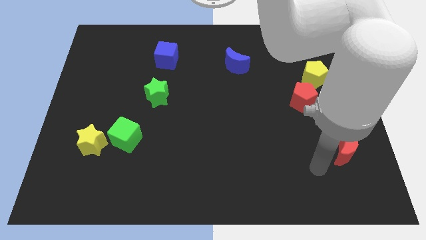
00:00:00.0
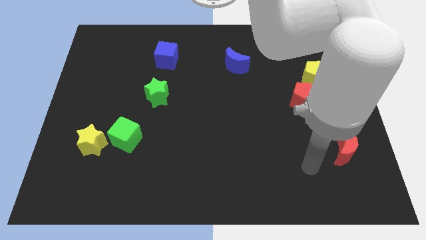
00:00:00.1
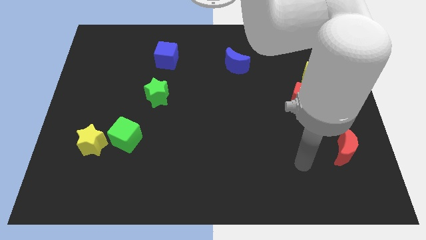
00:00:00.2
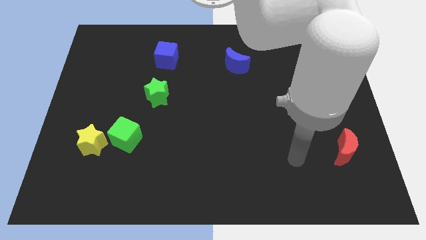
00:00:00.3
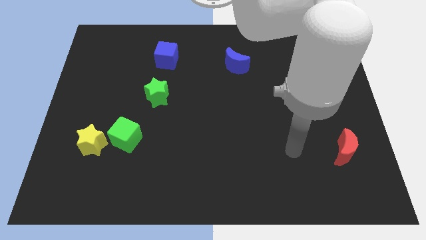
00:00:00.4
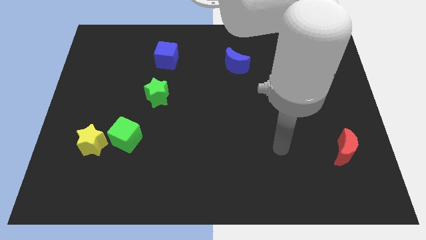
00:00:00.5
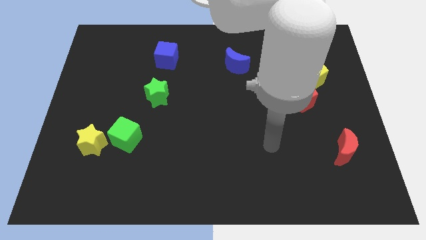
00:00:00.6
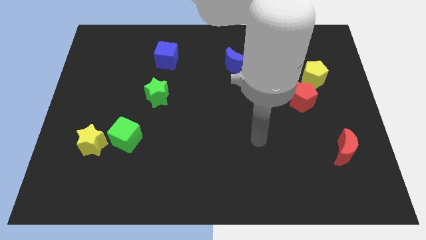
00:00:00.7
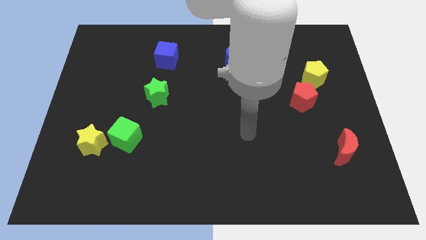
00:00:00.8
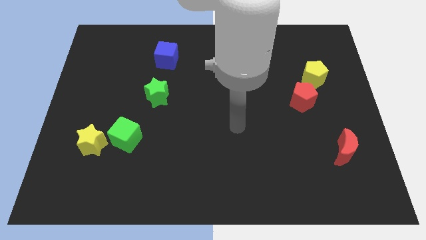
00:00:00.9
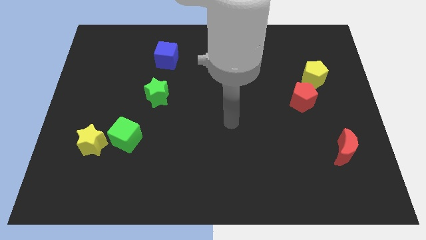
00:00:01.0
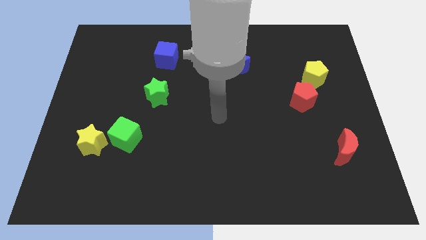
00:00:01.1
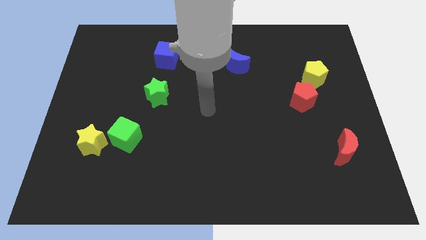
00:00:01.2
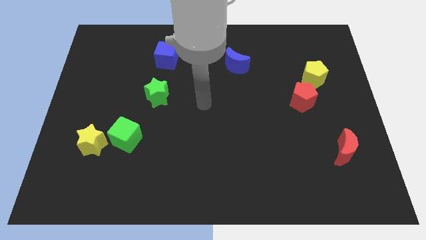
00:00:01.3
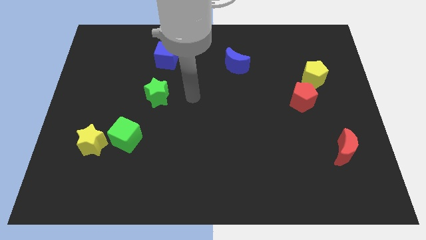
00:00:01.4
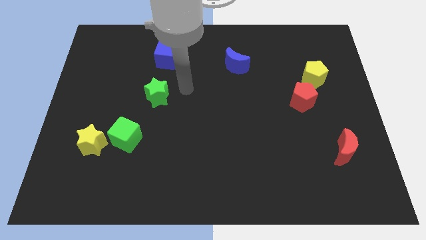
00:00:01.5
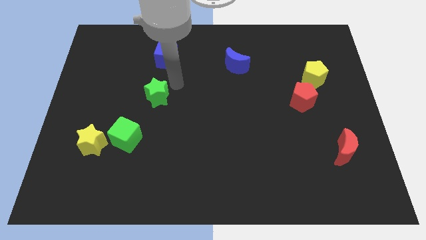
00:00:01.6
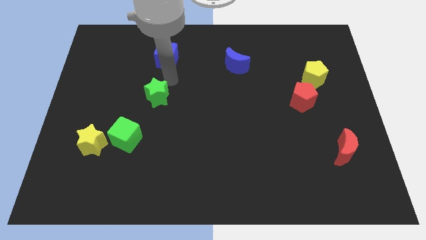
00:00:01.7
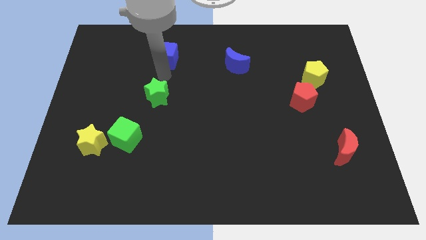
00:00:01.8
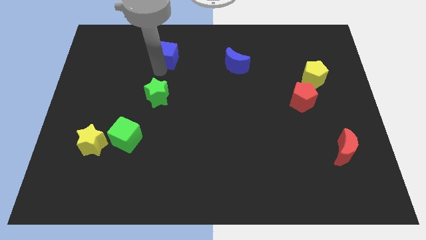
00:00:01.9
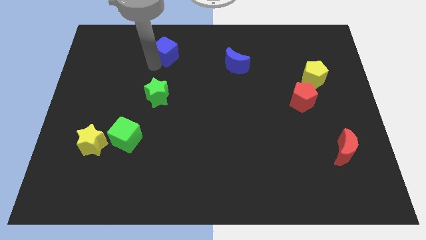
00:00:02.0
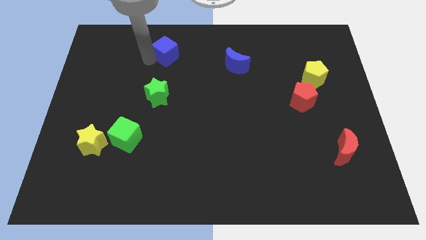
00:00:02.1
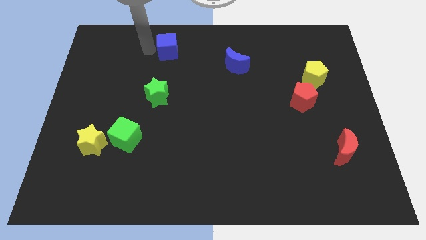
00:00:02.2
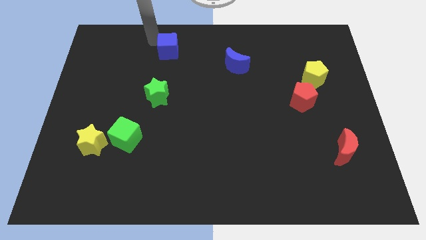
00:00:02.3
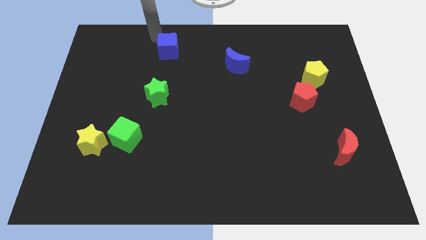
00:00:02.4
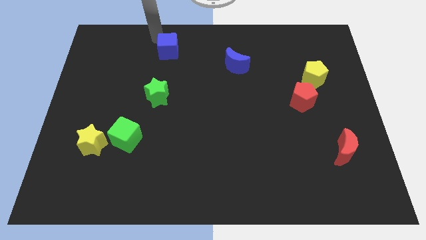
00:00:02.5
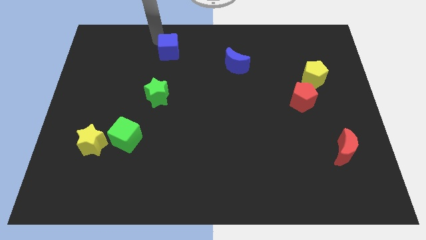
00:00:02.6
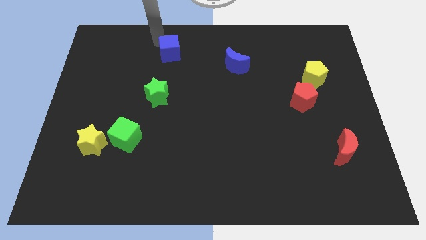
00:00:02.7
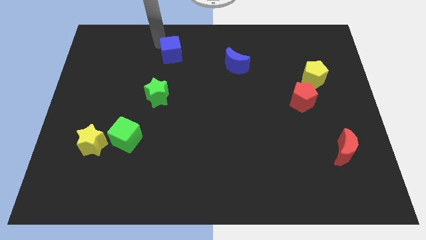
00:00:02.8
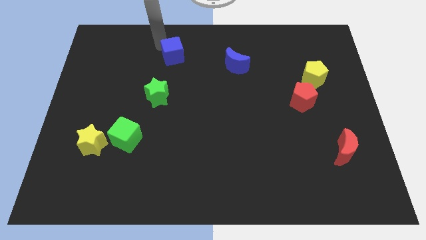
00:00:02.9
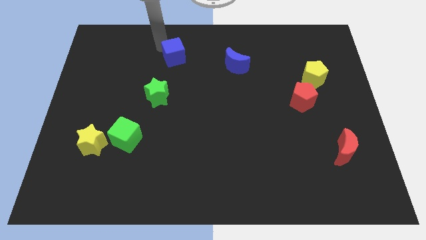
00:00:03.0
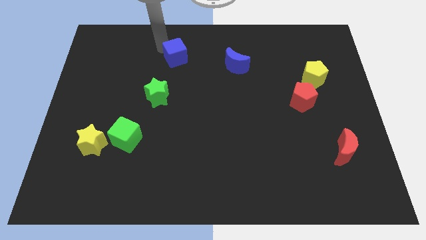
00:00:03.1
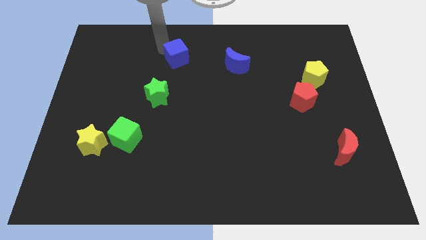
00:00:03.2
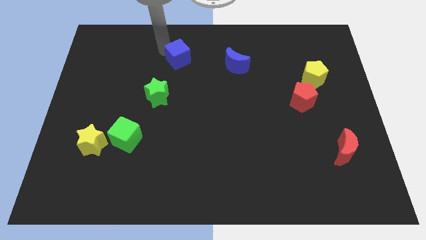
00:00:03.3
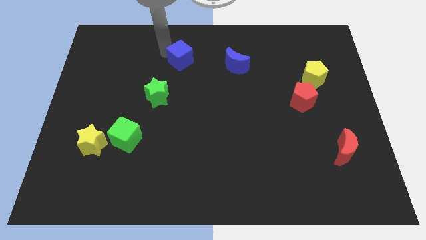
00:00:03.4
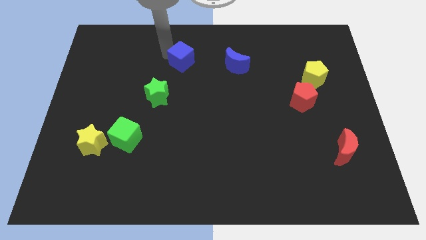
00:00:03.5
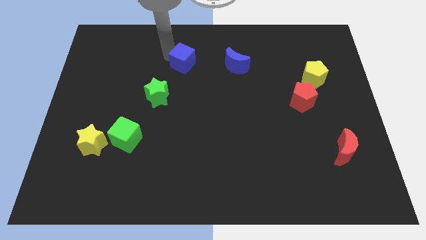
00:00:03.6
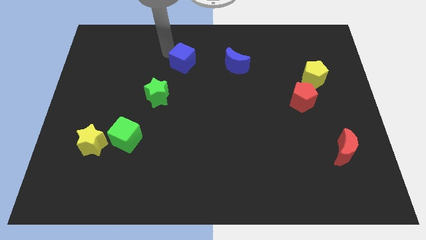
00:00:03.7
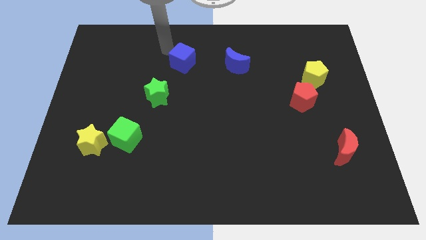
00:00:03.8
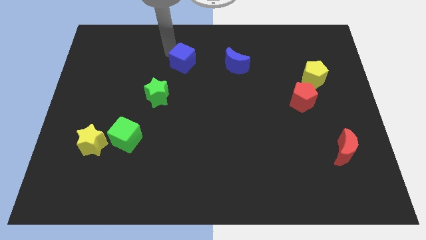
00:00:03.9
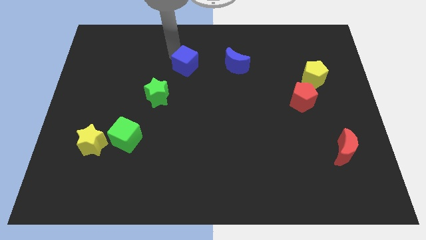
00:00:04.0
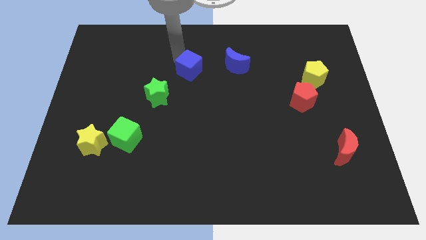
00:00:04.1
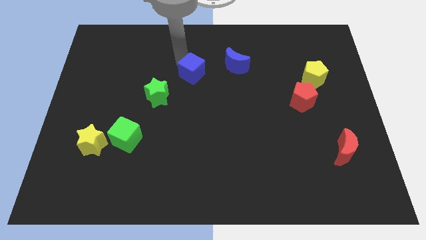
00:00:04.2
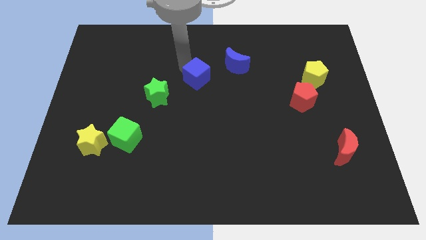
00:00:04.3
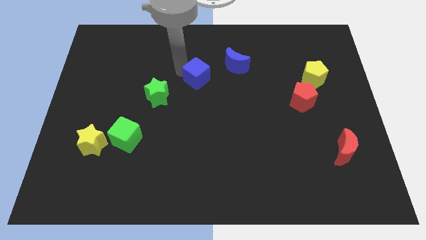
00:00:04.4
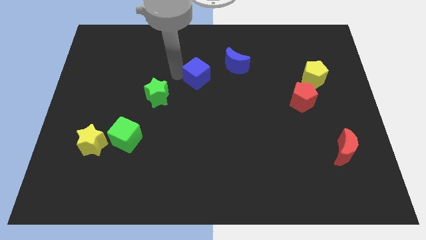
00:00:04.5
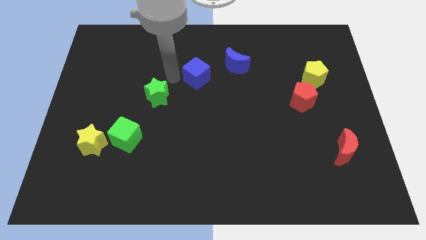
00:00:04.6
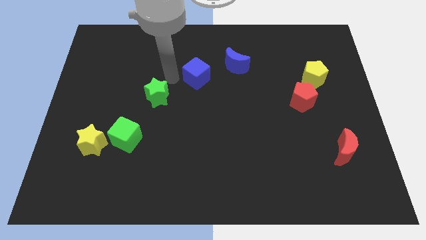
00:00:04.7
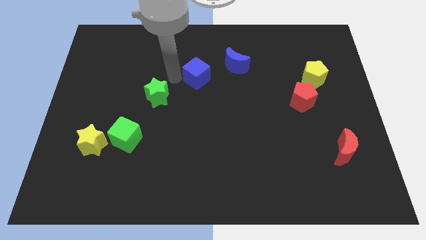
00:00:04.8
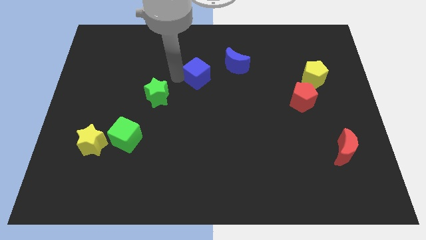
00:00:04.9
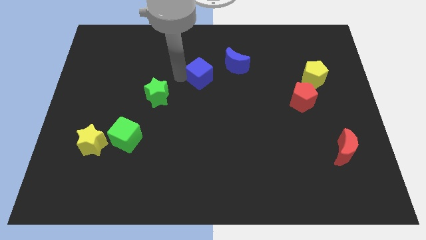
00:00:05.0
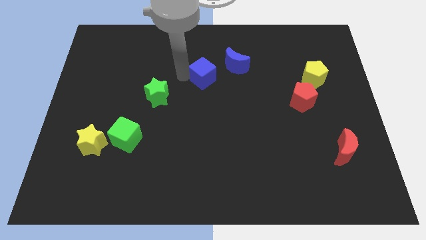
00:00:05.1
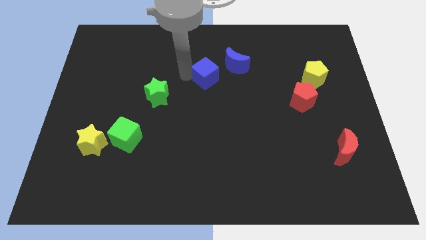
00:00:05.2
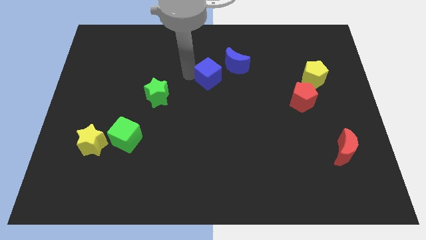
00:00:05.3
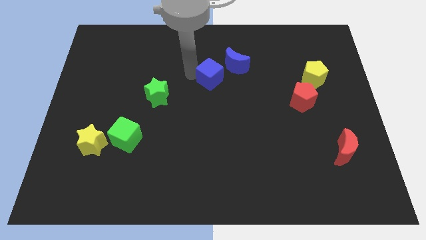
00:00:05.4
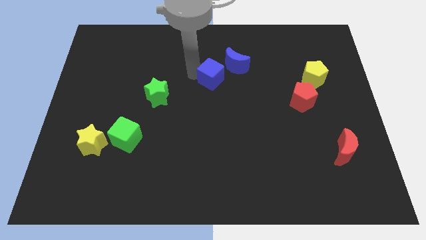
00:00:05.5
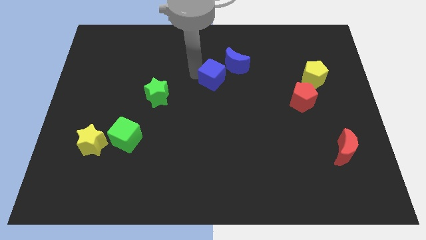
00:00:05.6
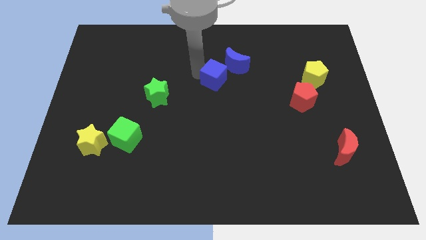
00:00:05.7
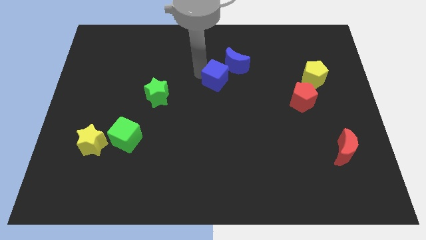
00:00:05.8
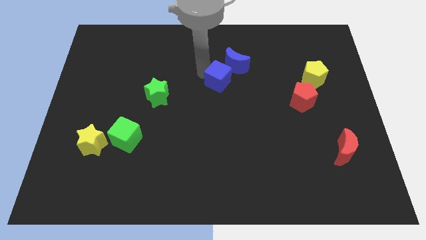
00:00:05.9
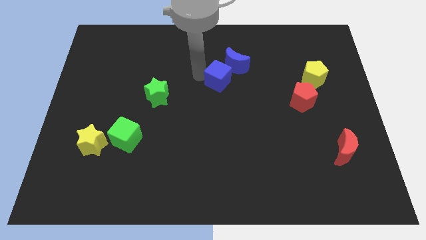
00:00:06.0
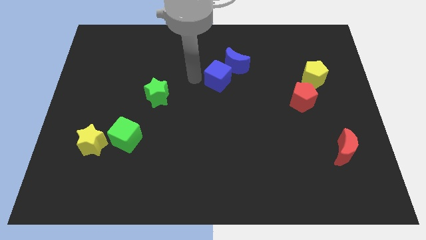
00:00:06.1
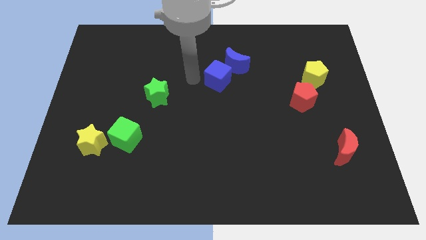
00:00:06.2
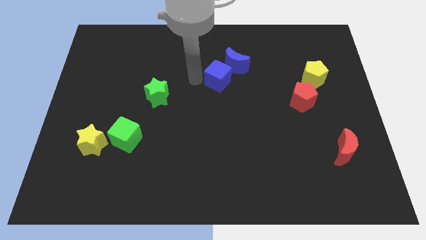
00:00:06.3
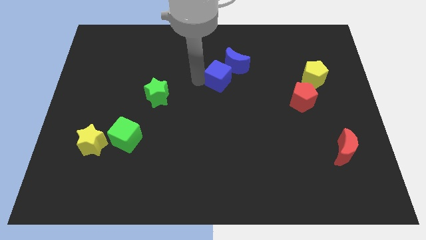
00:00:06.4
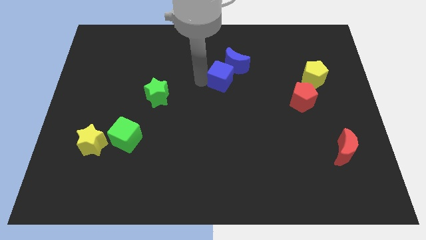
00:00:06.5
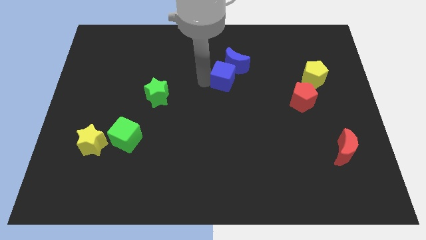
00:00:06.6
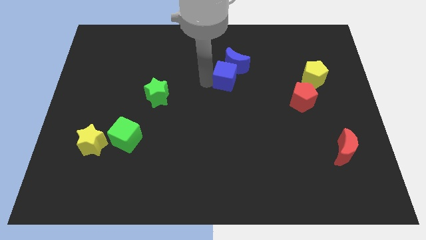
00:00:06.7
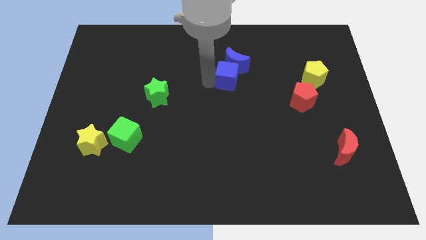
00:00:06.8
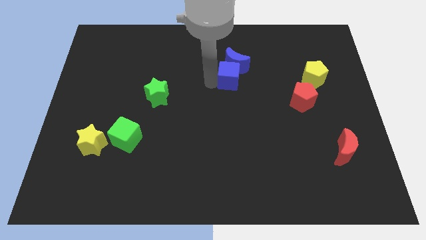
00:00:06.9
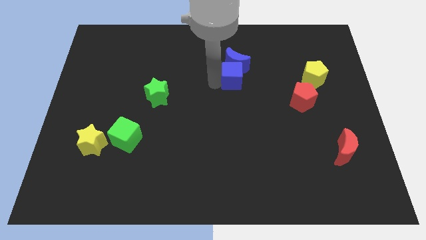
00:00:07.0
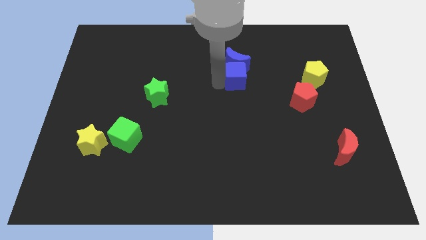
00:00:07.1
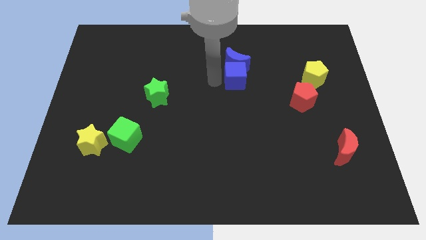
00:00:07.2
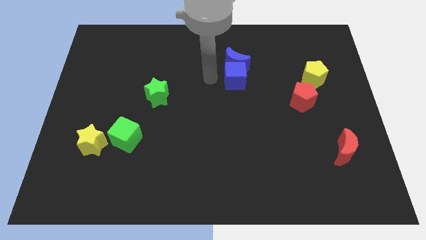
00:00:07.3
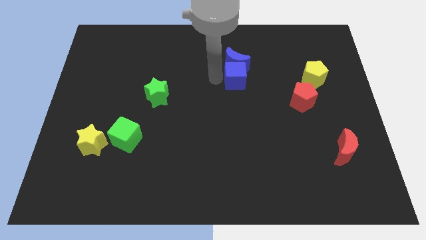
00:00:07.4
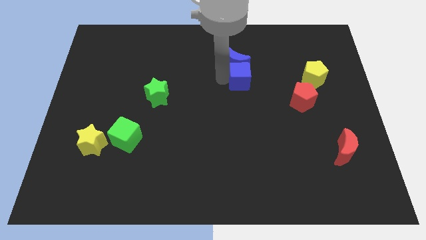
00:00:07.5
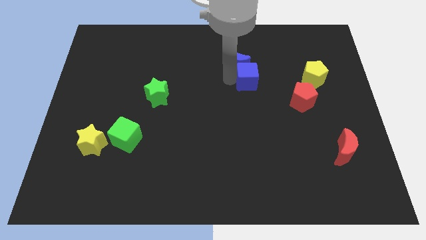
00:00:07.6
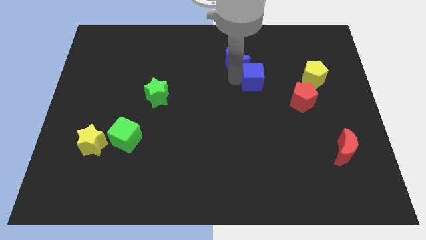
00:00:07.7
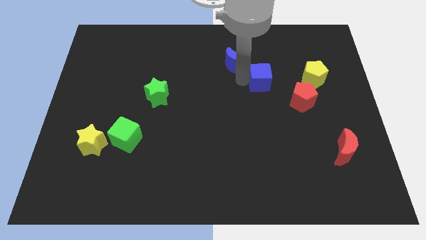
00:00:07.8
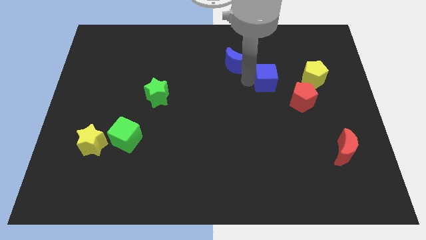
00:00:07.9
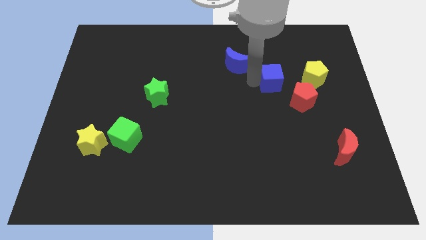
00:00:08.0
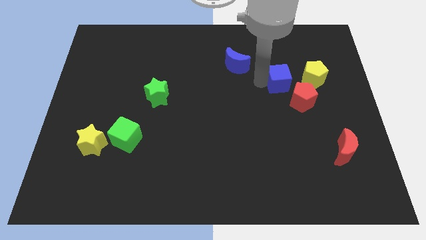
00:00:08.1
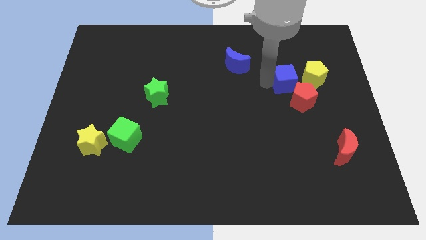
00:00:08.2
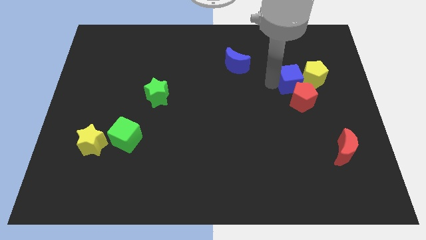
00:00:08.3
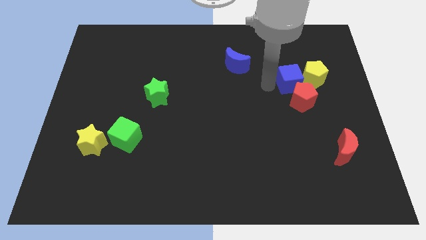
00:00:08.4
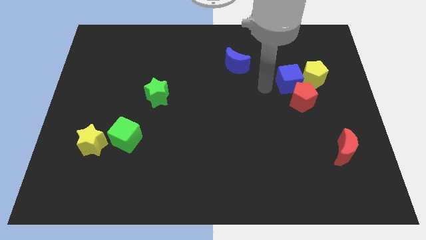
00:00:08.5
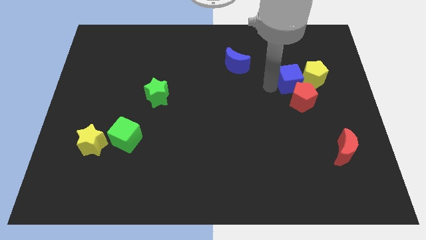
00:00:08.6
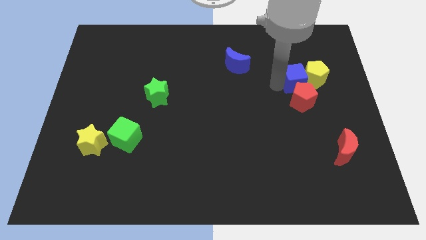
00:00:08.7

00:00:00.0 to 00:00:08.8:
push the blue cube to the yellow pentagon
